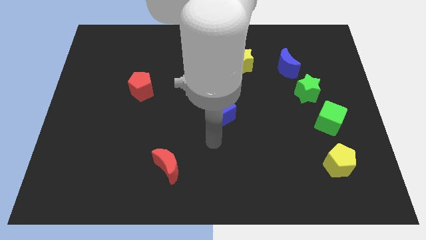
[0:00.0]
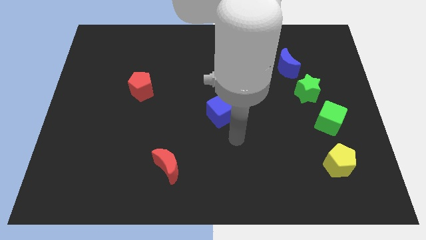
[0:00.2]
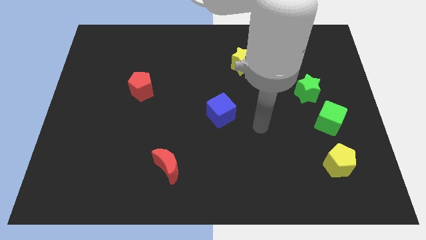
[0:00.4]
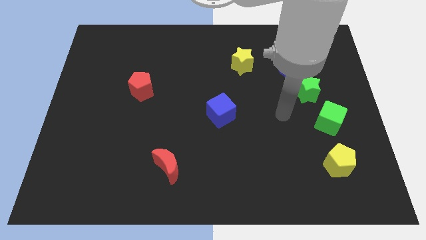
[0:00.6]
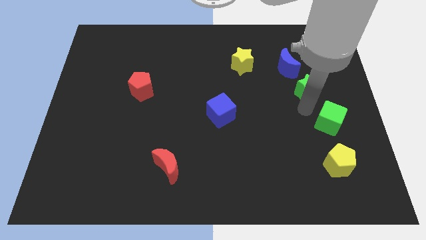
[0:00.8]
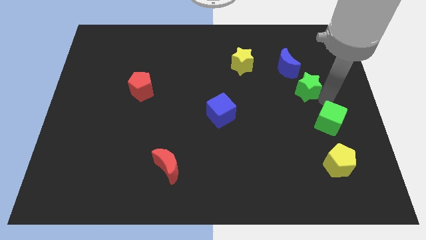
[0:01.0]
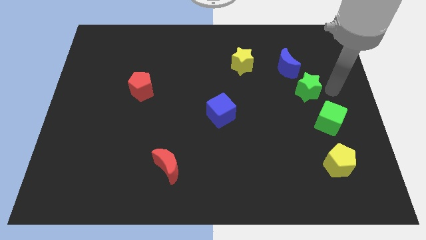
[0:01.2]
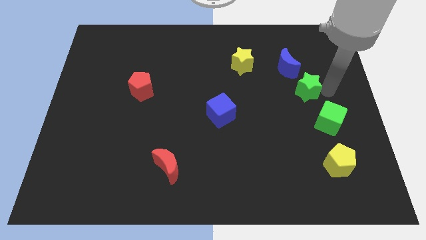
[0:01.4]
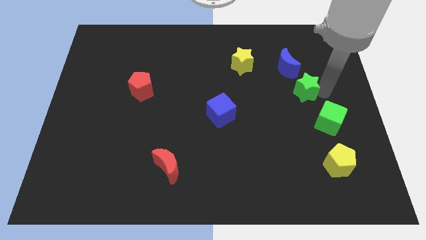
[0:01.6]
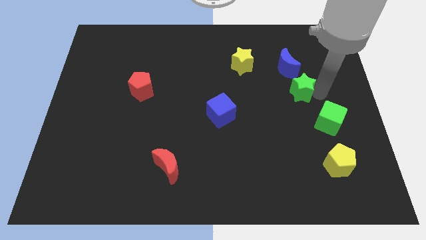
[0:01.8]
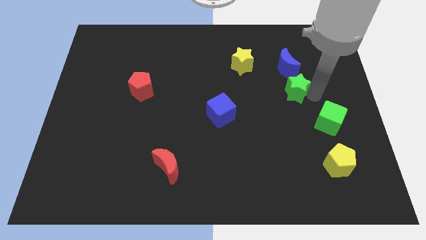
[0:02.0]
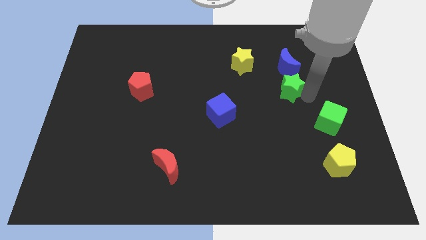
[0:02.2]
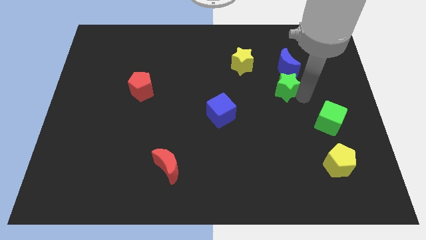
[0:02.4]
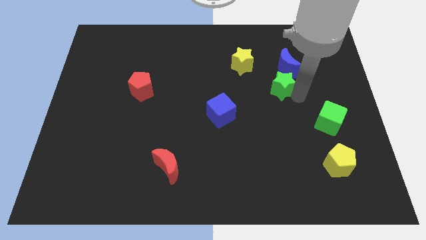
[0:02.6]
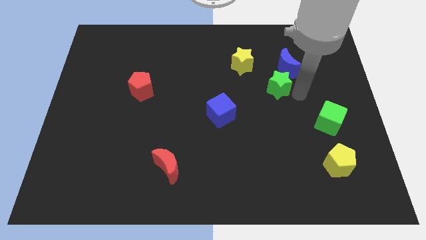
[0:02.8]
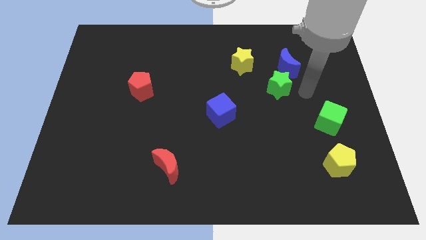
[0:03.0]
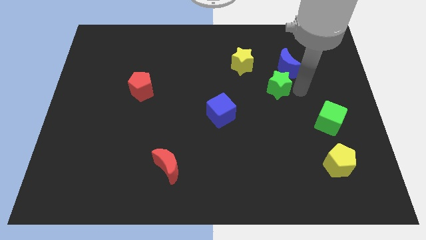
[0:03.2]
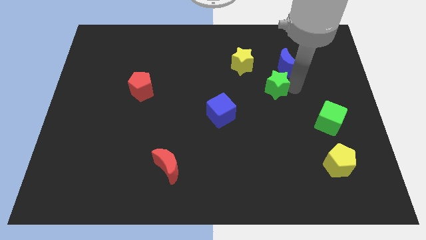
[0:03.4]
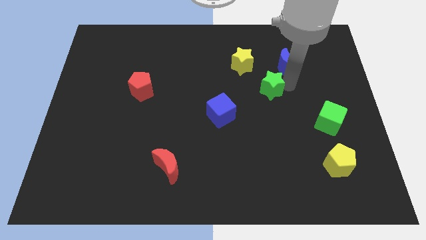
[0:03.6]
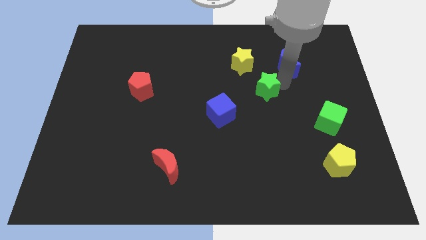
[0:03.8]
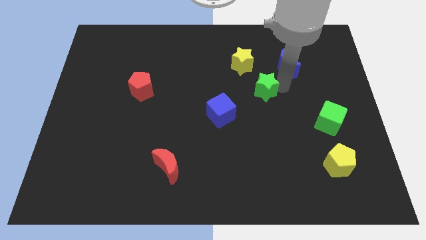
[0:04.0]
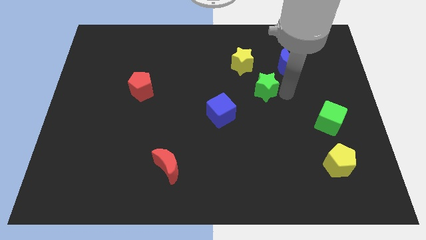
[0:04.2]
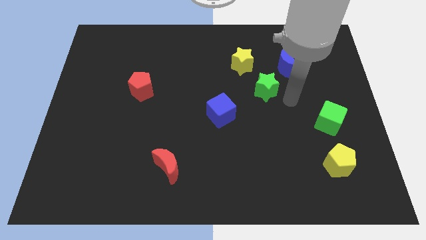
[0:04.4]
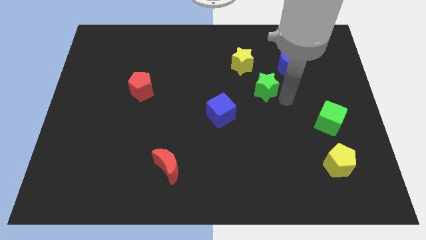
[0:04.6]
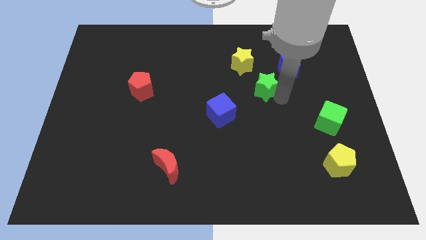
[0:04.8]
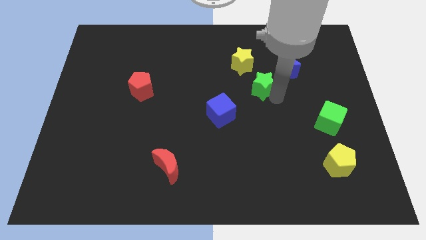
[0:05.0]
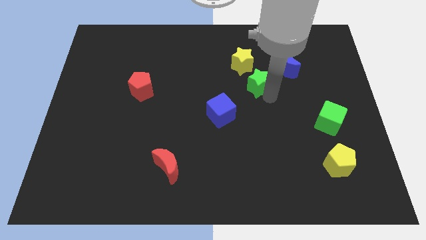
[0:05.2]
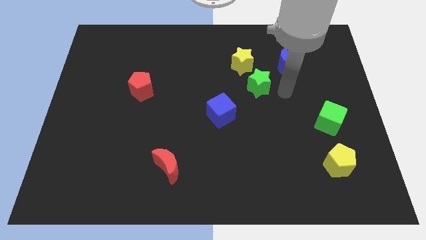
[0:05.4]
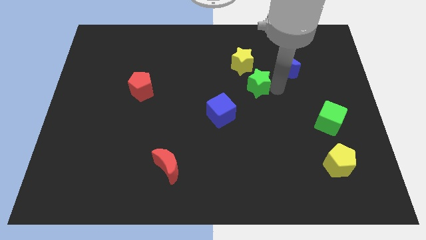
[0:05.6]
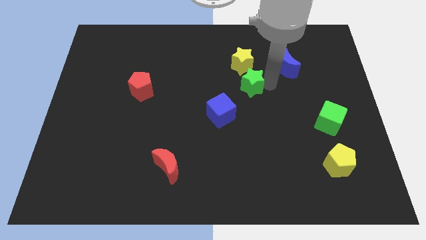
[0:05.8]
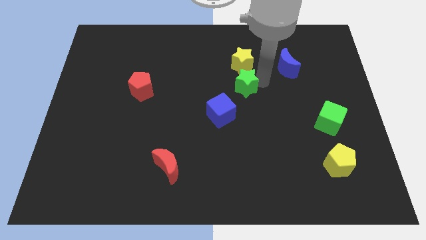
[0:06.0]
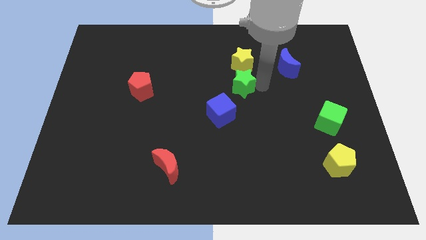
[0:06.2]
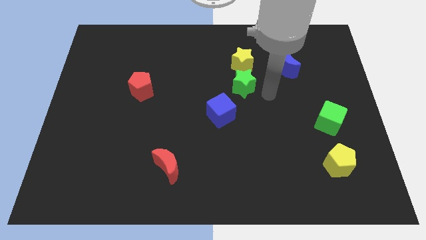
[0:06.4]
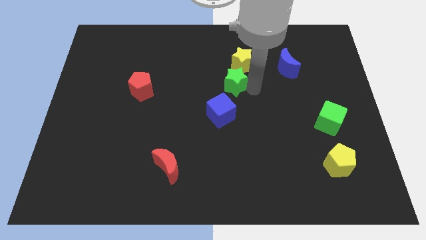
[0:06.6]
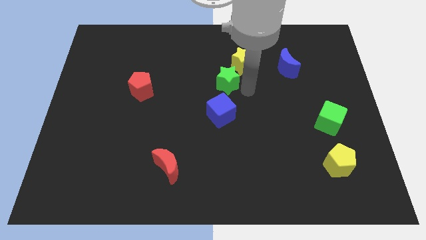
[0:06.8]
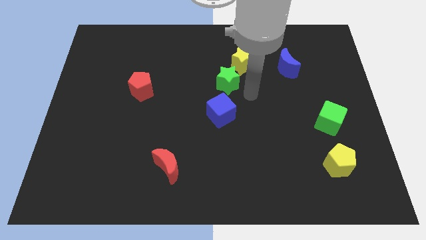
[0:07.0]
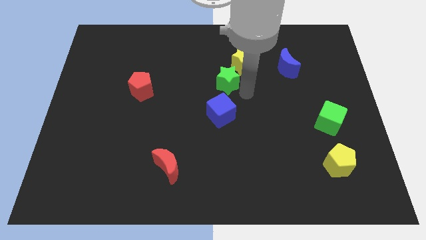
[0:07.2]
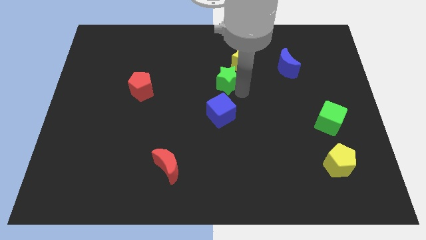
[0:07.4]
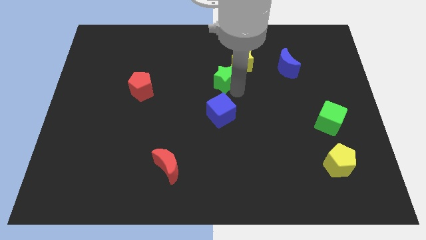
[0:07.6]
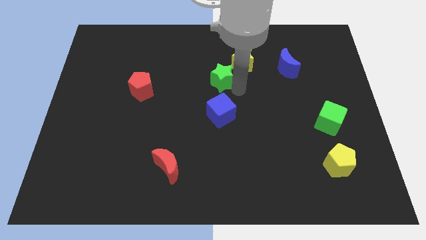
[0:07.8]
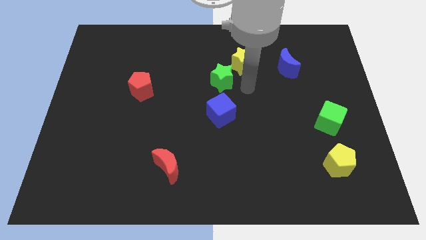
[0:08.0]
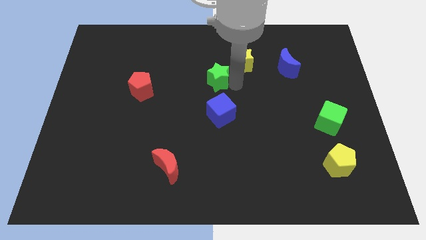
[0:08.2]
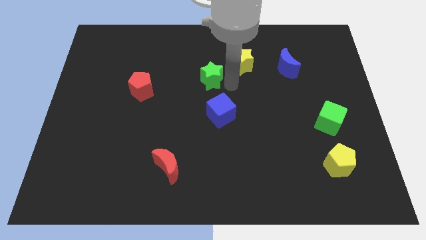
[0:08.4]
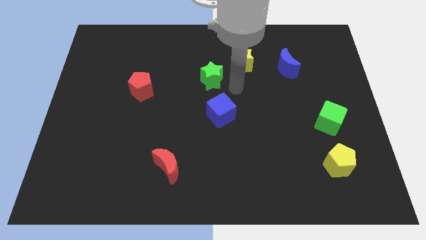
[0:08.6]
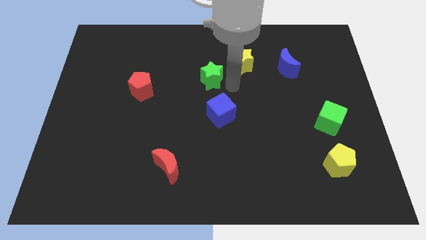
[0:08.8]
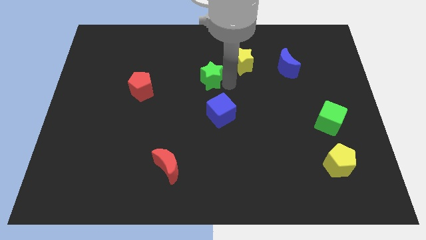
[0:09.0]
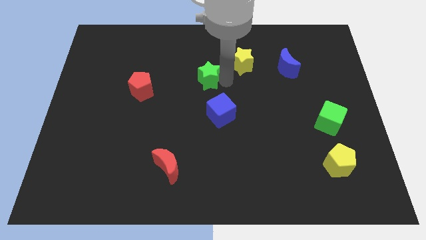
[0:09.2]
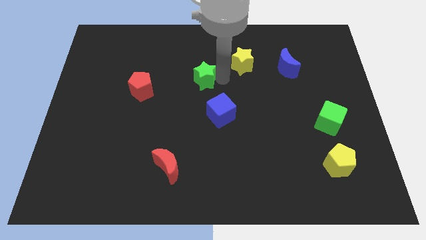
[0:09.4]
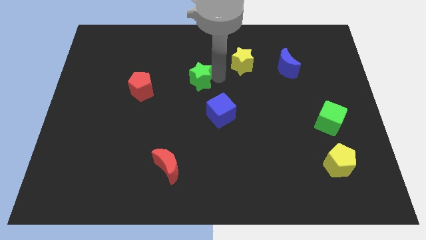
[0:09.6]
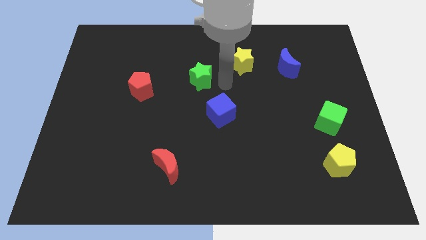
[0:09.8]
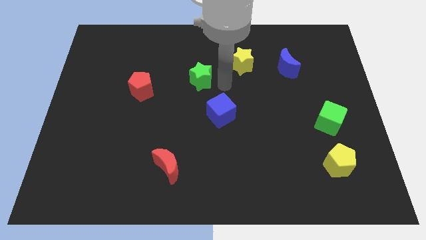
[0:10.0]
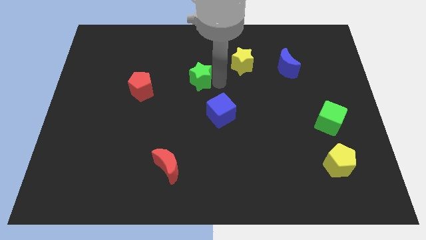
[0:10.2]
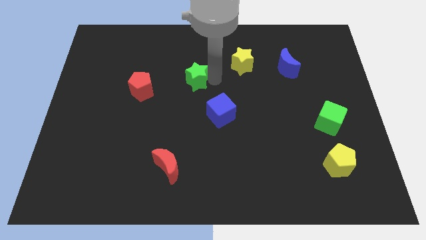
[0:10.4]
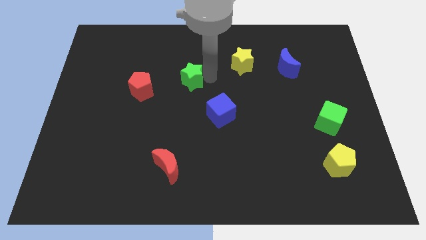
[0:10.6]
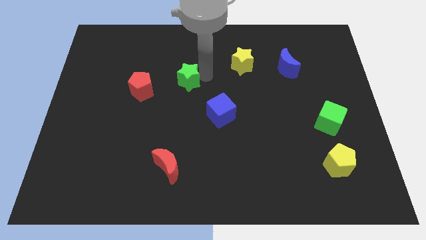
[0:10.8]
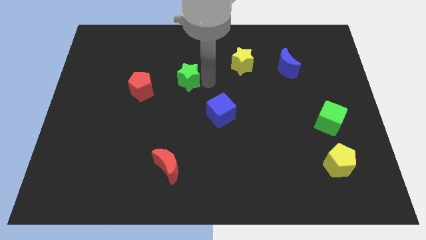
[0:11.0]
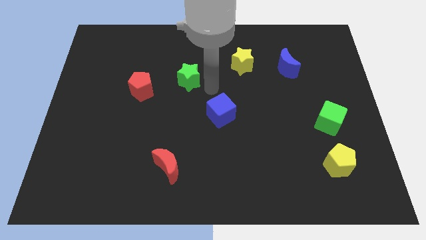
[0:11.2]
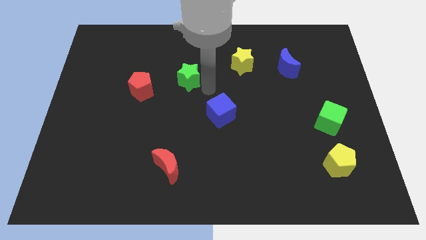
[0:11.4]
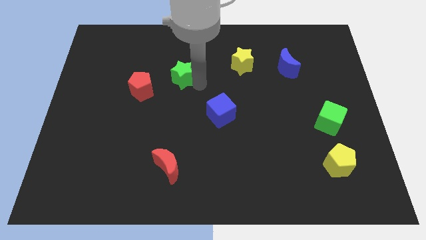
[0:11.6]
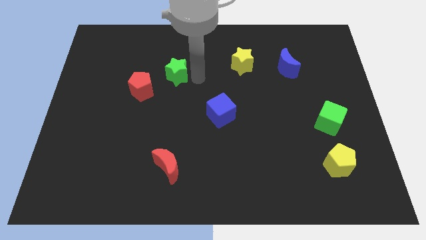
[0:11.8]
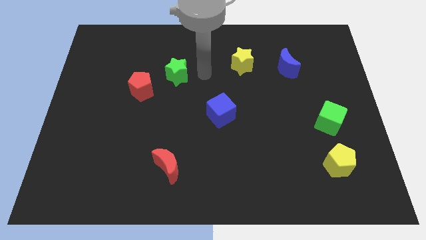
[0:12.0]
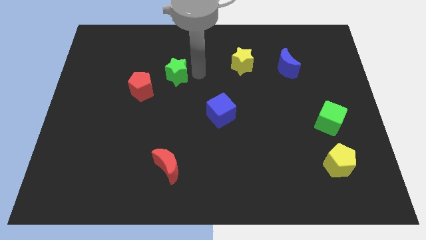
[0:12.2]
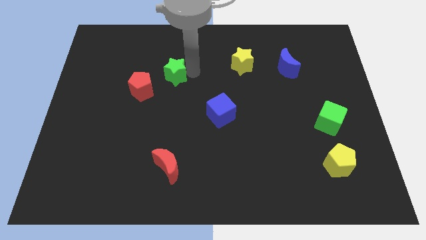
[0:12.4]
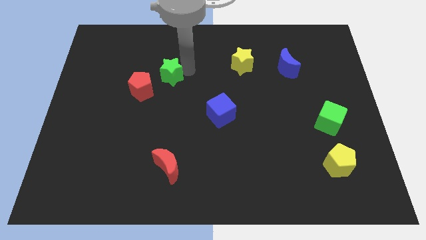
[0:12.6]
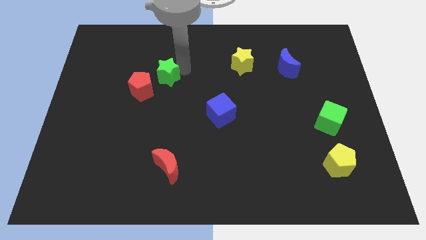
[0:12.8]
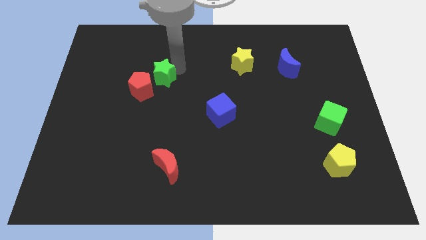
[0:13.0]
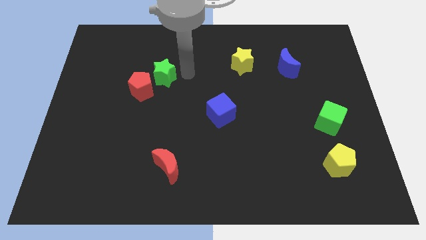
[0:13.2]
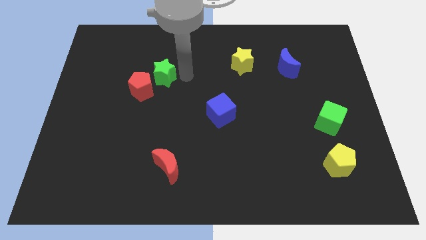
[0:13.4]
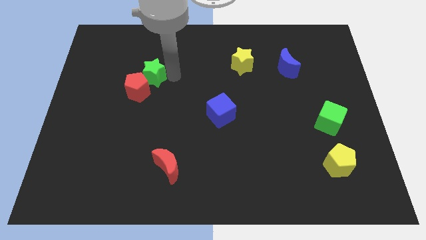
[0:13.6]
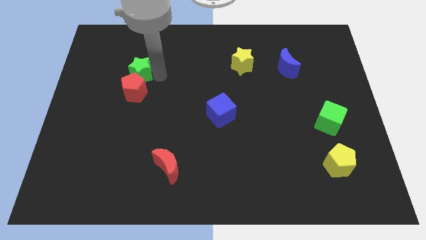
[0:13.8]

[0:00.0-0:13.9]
slide the green star to the top left of the red pentagon
